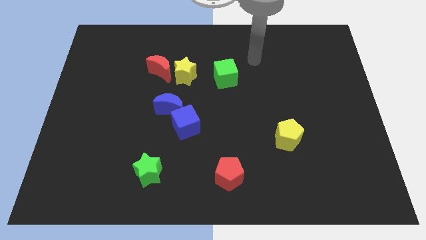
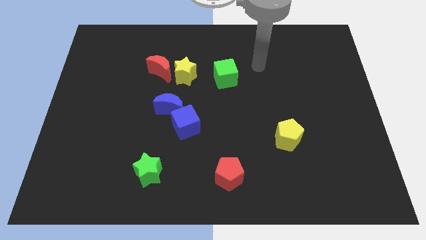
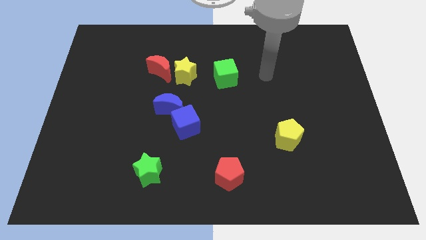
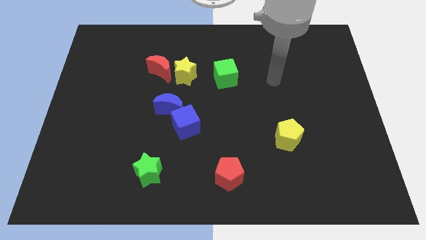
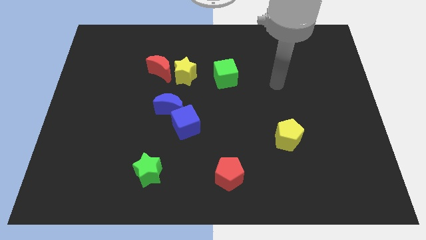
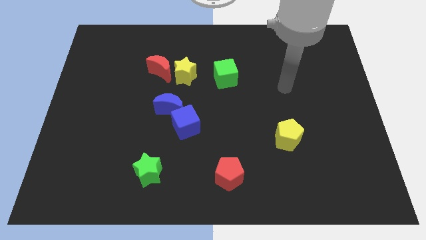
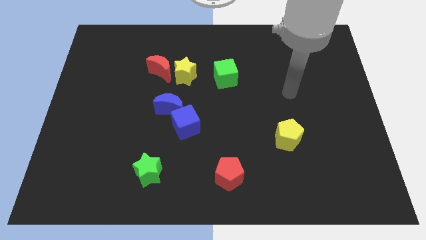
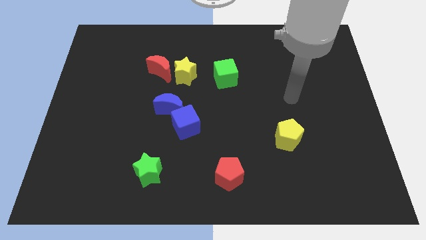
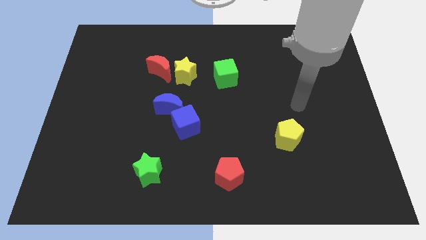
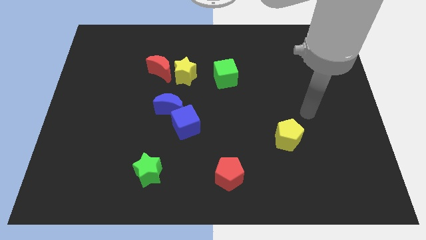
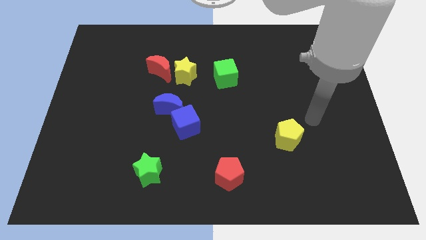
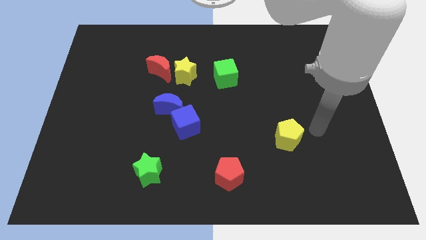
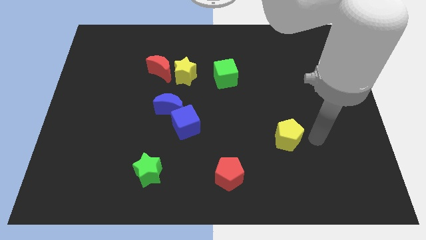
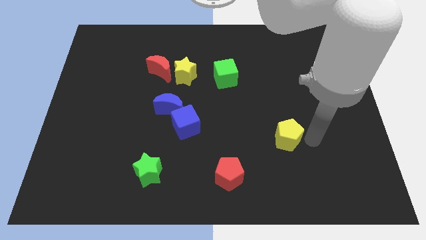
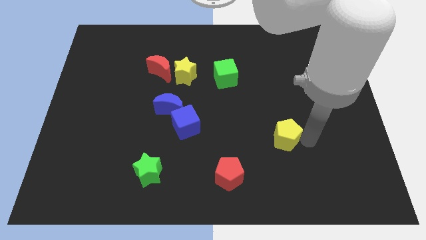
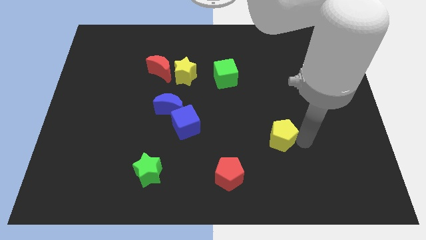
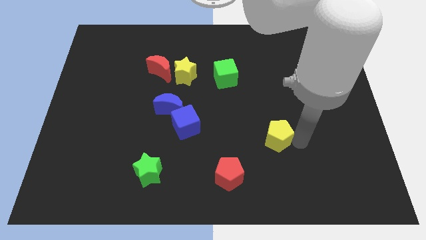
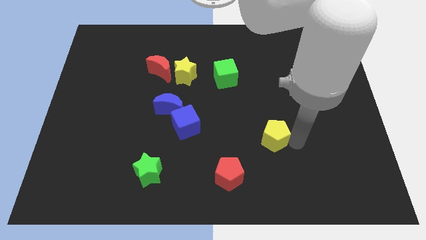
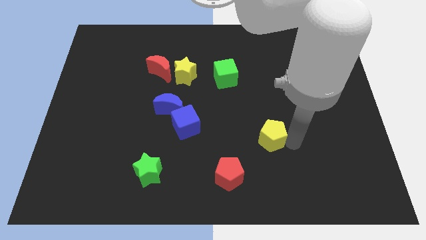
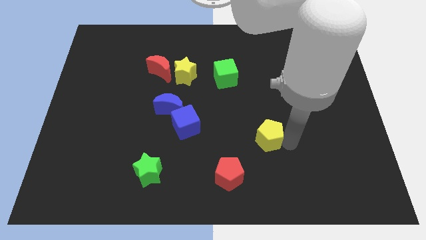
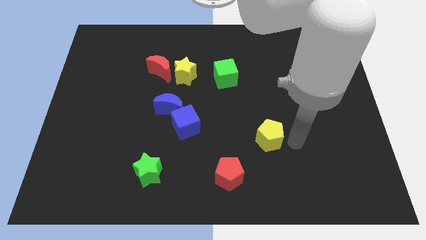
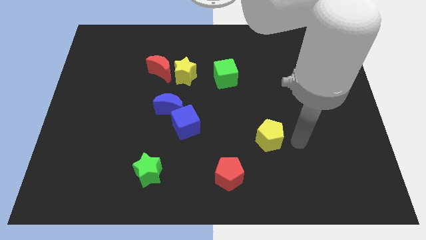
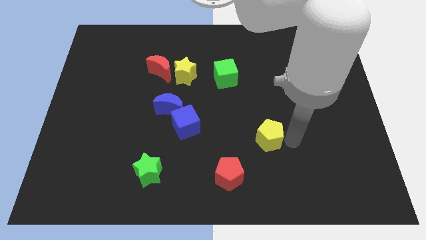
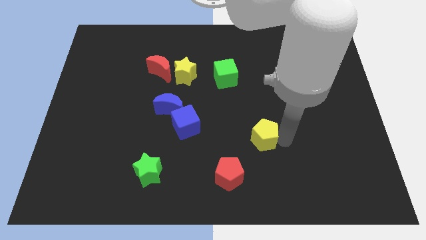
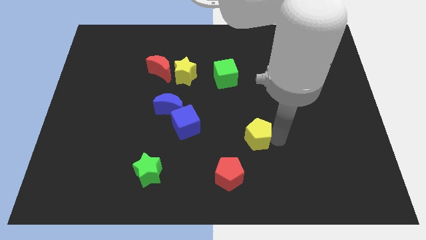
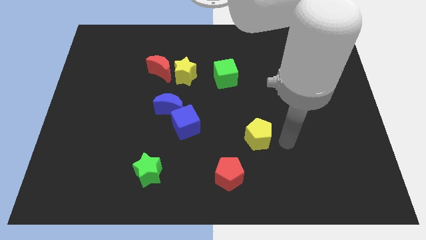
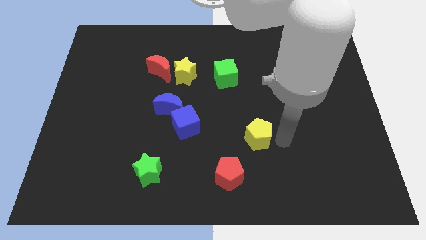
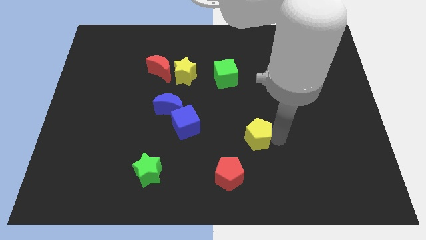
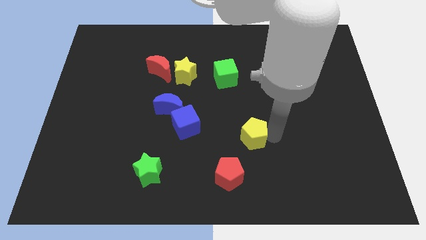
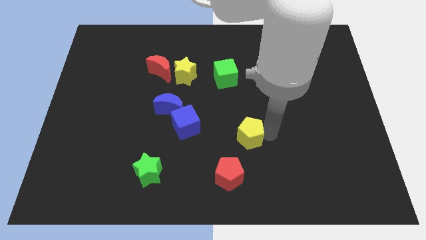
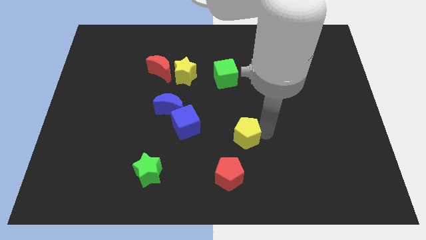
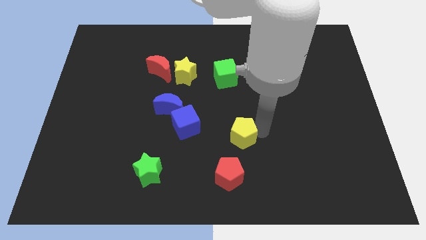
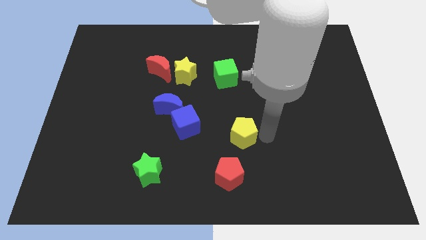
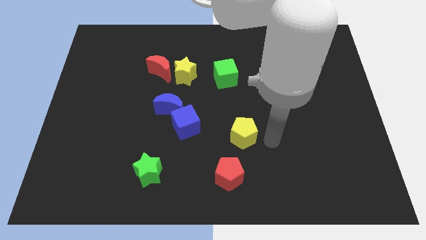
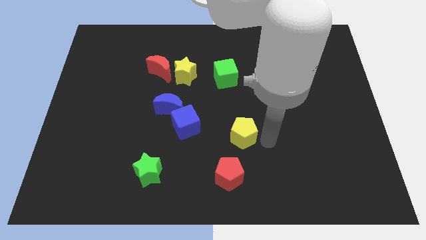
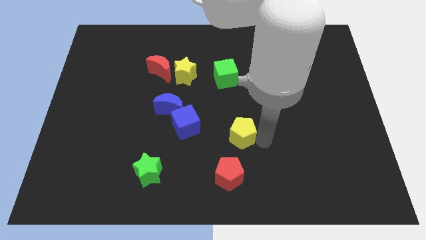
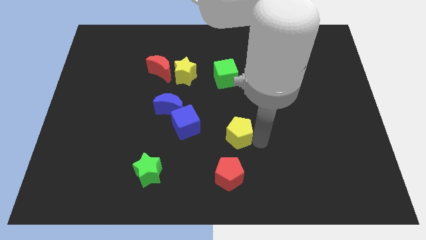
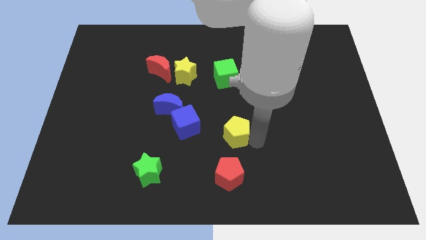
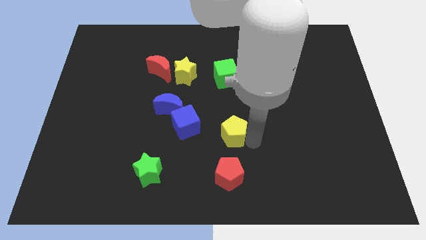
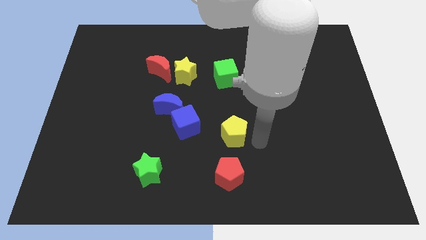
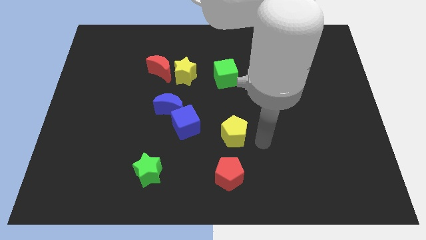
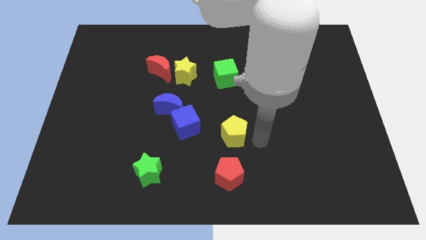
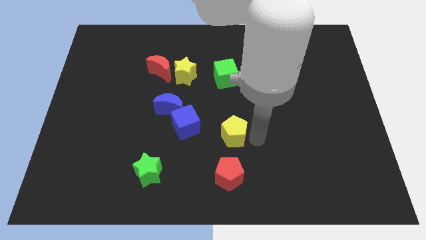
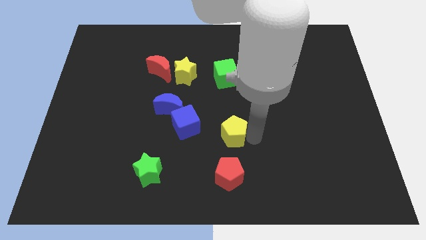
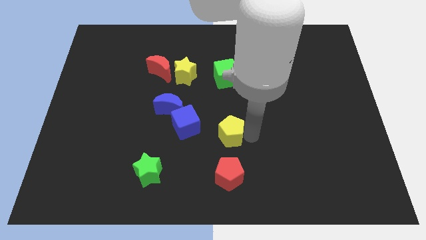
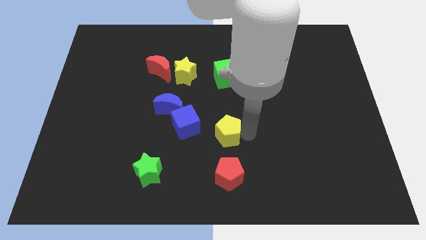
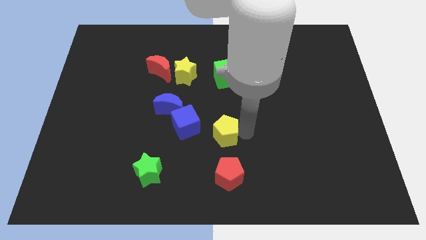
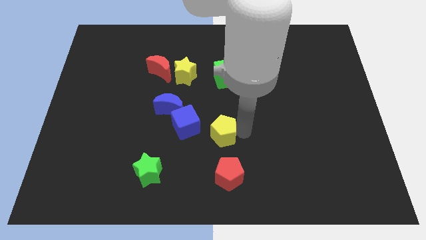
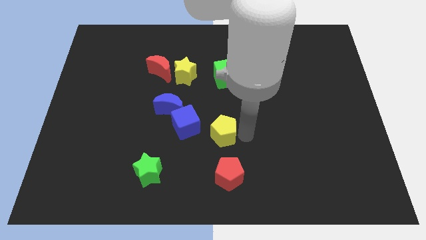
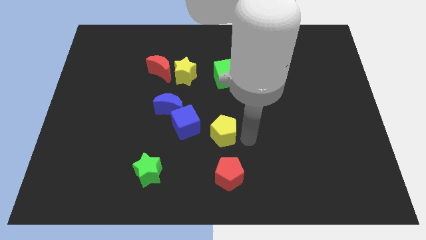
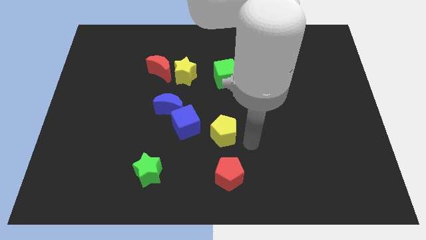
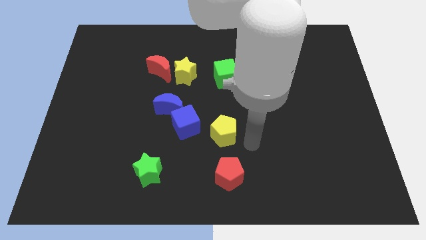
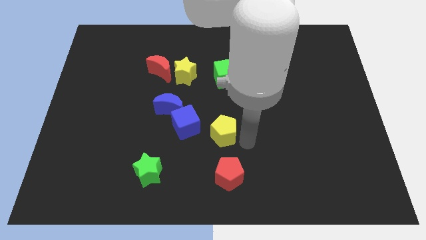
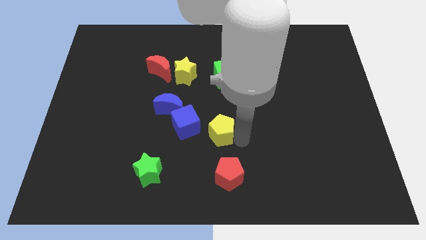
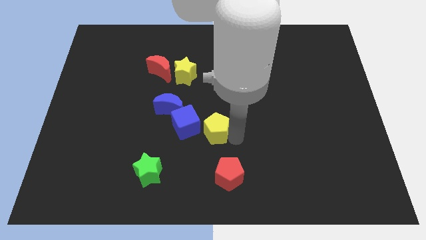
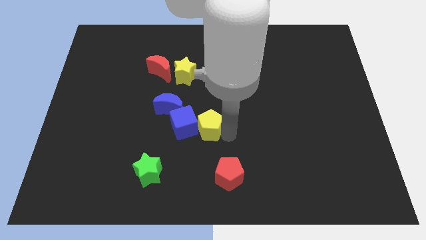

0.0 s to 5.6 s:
put the yellow pentagon next to the blue cube

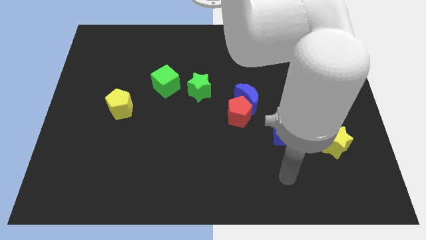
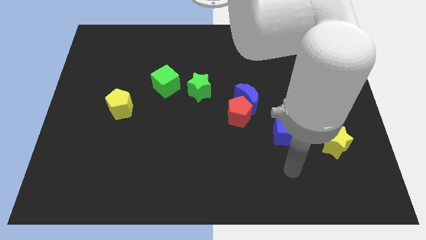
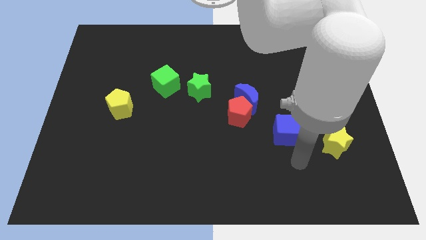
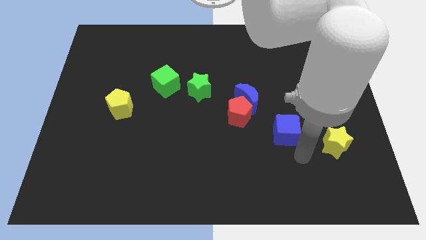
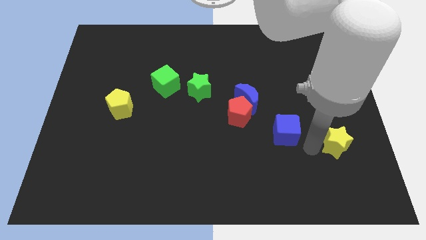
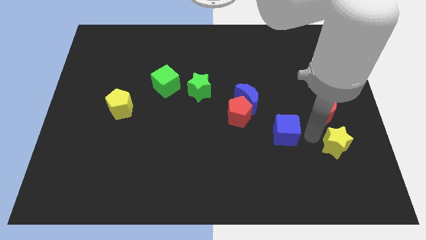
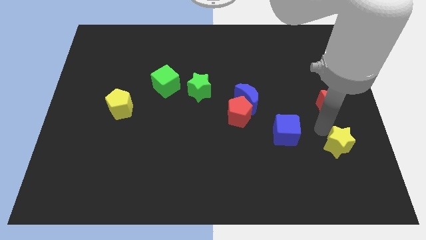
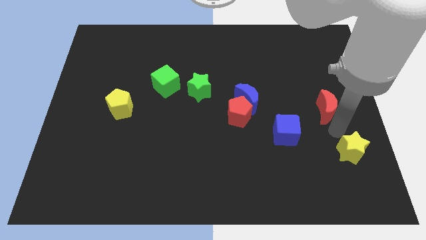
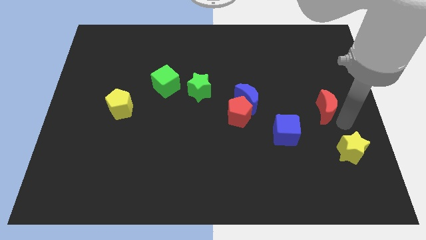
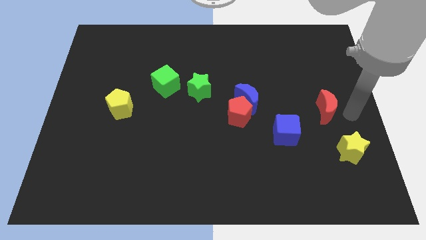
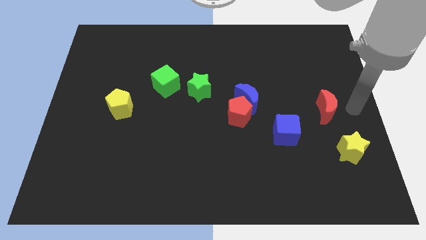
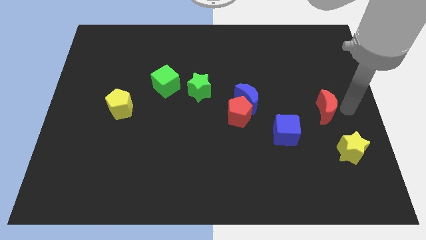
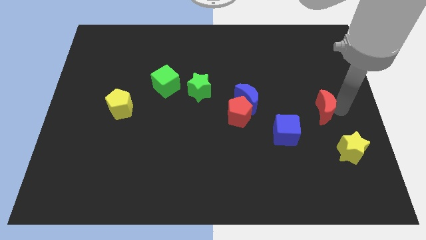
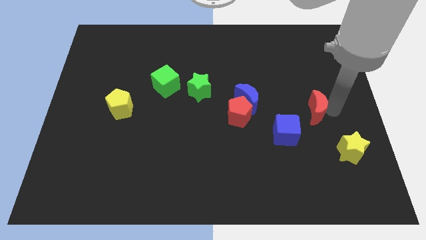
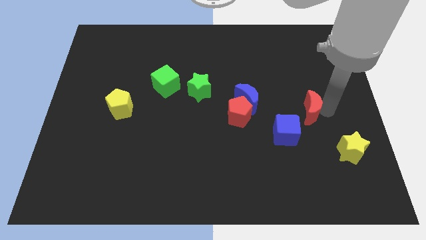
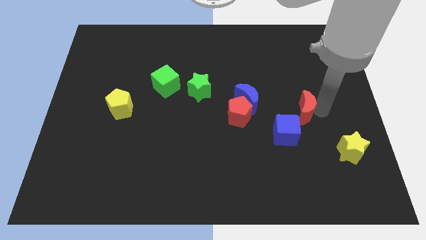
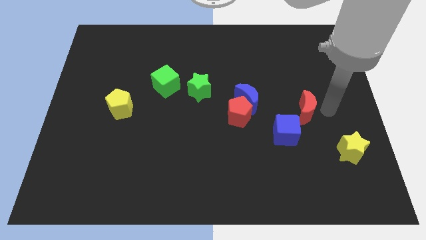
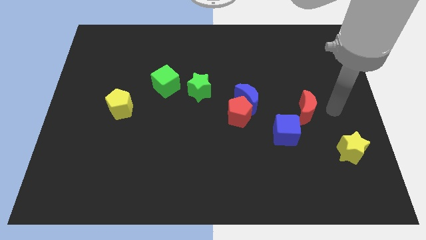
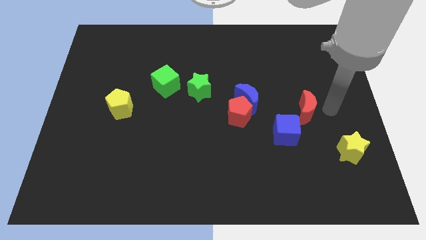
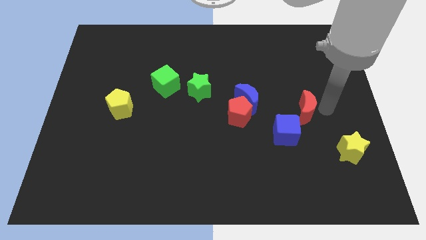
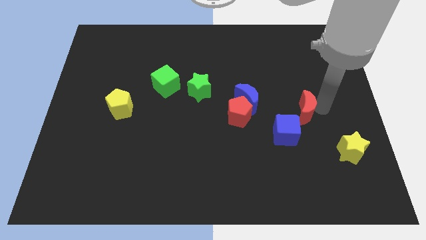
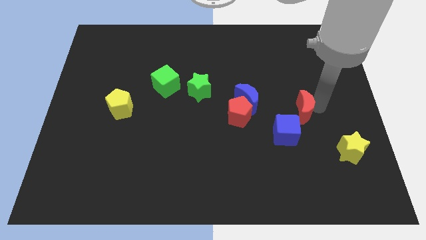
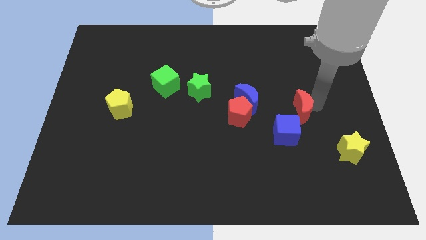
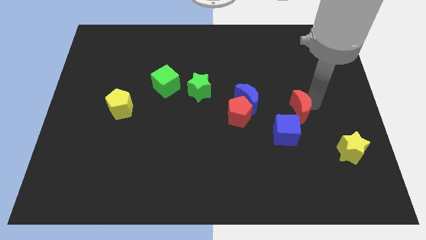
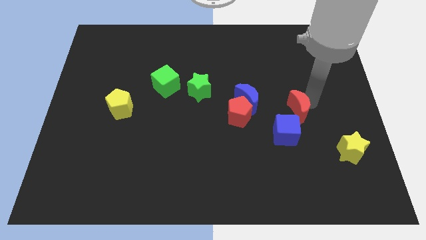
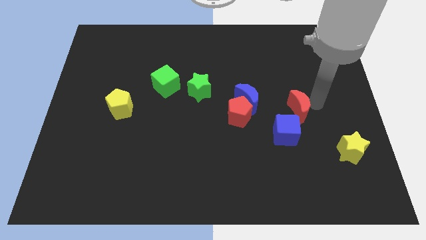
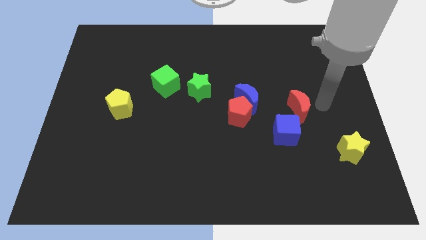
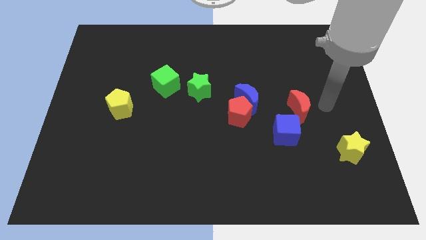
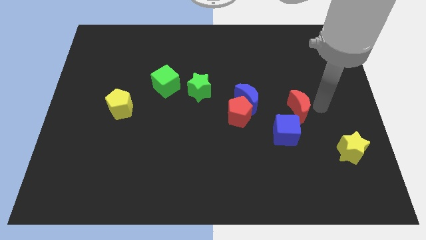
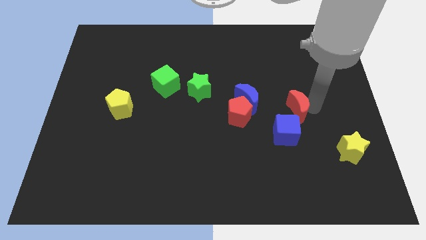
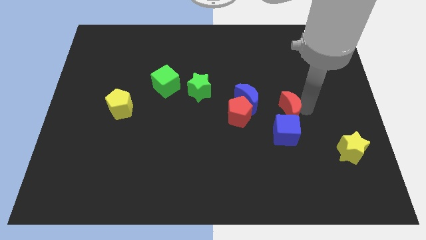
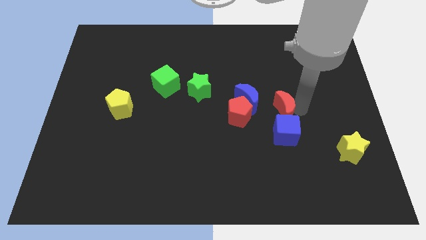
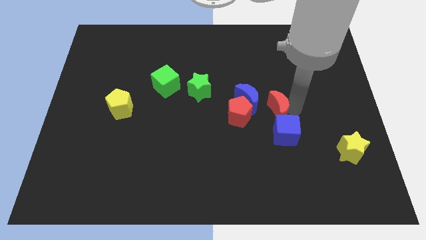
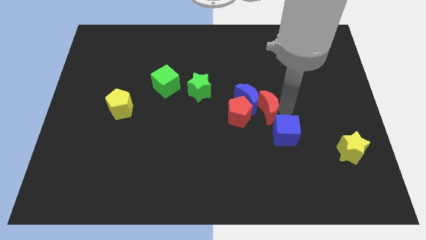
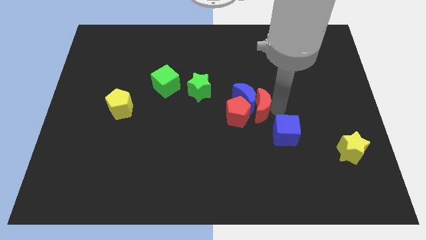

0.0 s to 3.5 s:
move the red moon towards the red pentagon
